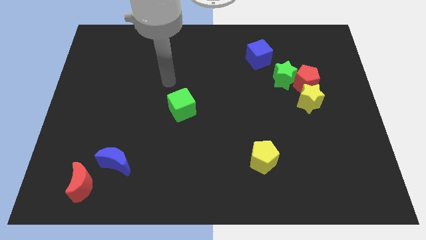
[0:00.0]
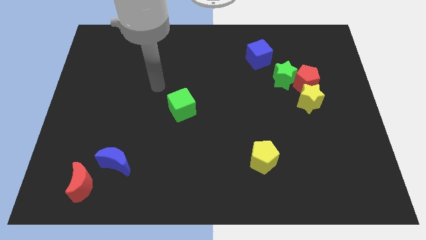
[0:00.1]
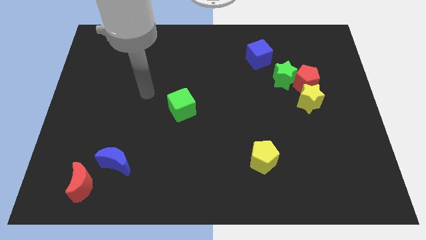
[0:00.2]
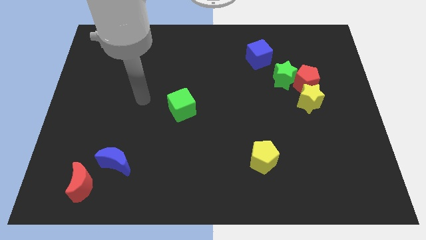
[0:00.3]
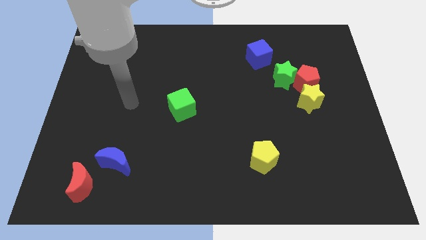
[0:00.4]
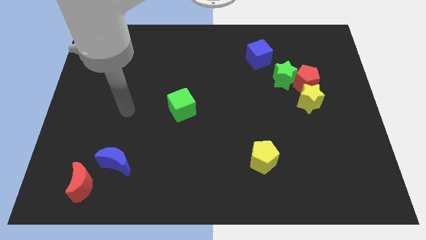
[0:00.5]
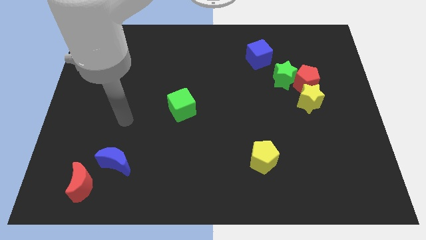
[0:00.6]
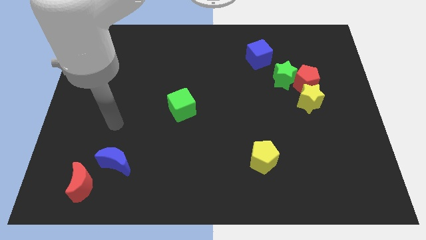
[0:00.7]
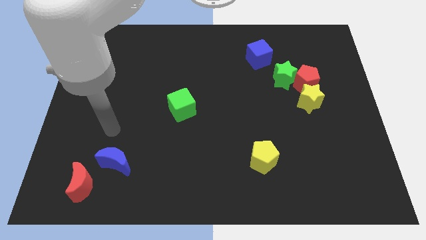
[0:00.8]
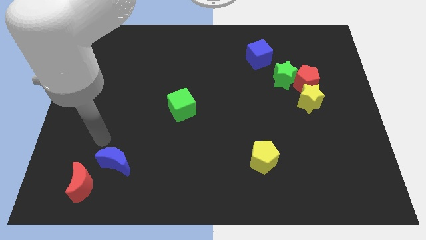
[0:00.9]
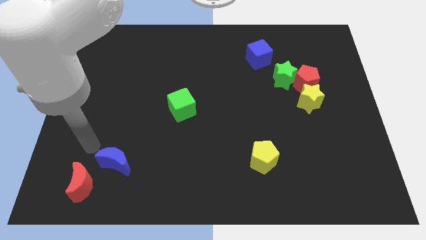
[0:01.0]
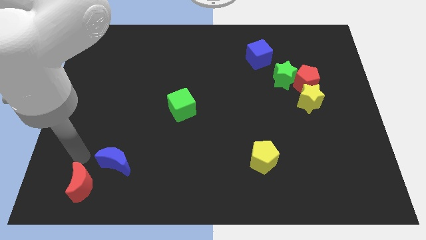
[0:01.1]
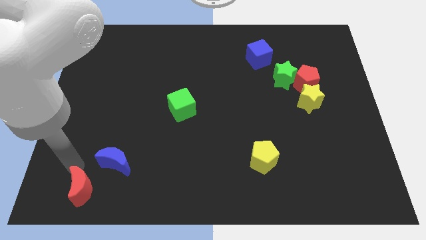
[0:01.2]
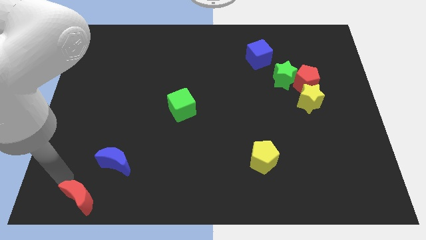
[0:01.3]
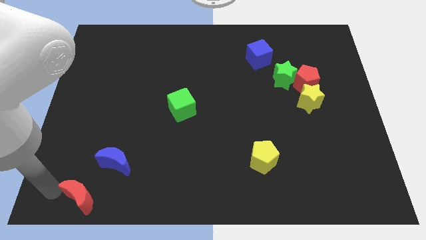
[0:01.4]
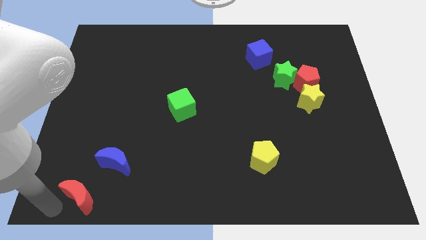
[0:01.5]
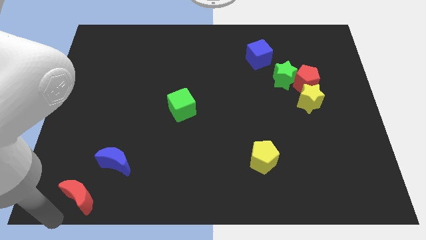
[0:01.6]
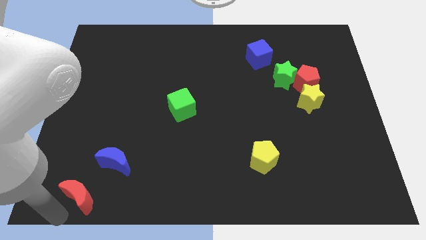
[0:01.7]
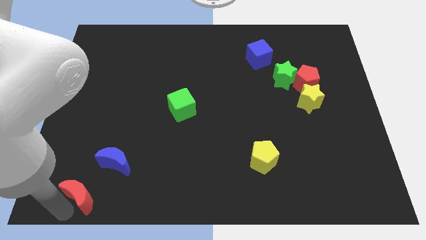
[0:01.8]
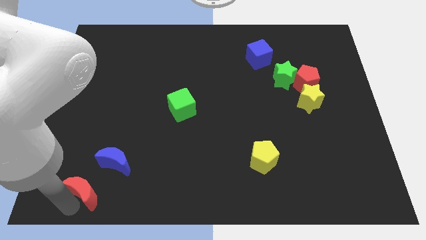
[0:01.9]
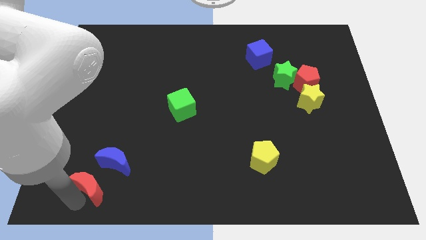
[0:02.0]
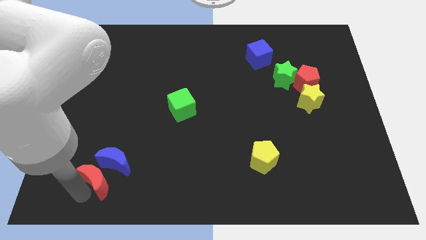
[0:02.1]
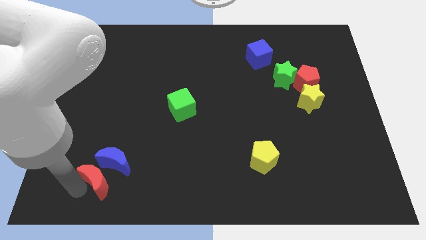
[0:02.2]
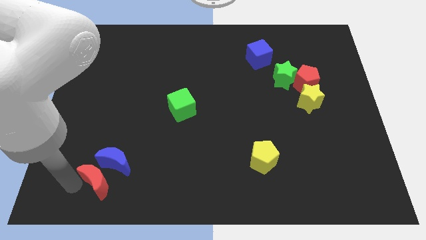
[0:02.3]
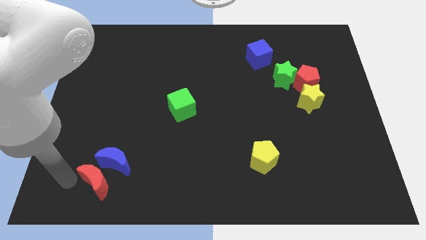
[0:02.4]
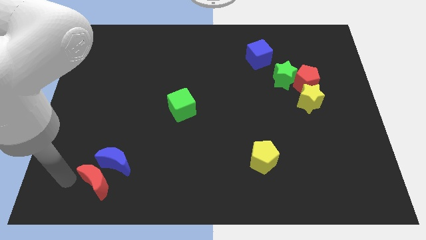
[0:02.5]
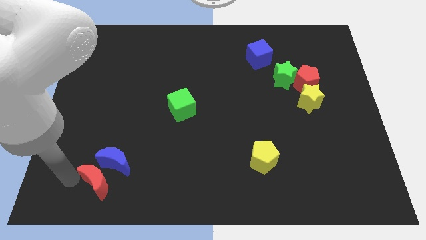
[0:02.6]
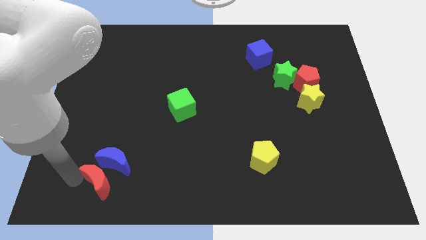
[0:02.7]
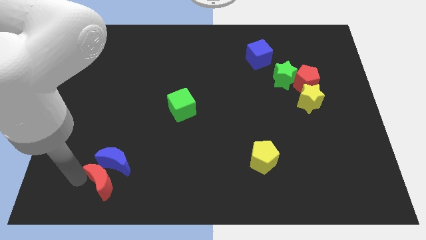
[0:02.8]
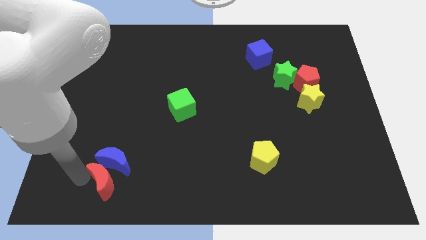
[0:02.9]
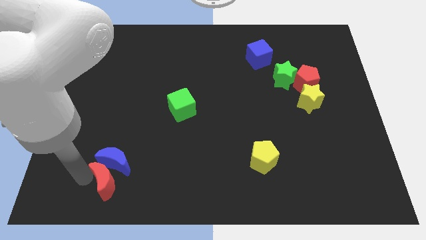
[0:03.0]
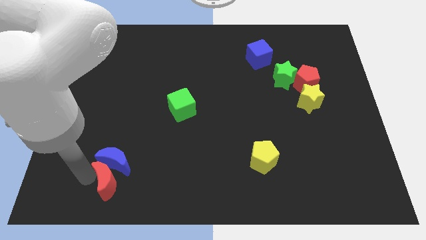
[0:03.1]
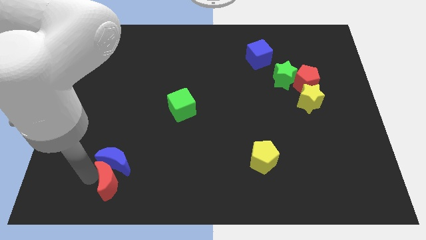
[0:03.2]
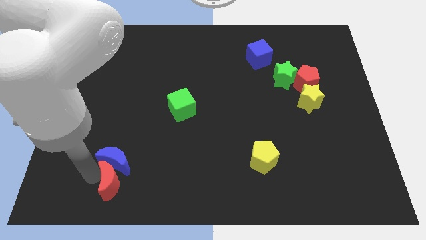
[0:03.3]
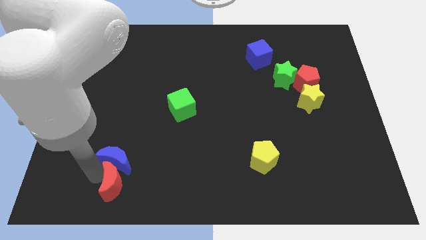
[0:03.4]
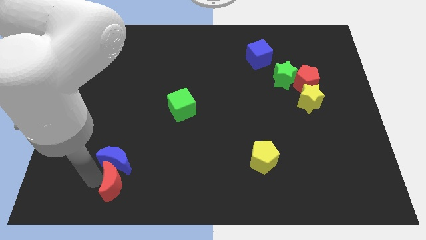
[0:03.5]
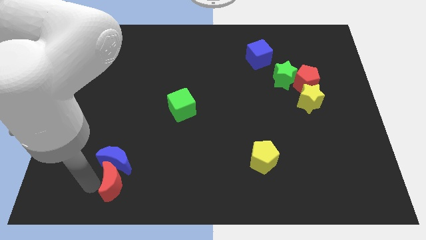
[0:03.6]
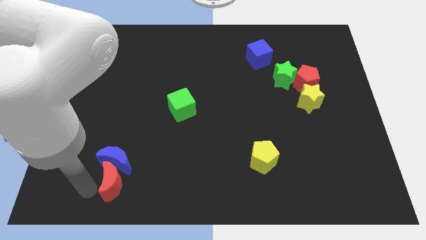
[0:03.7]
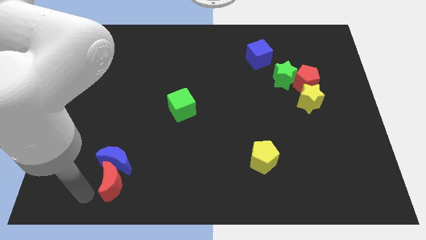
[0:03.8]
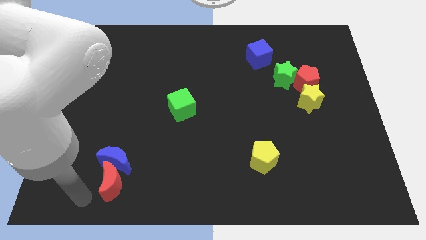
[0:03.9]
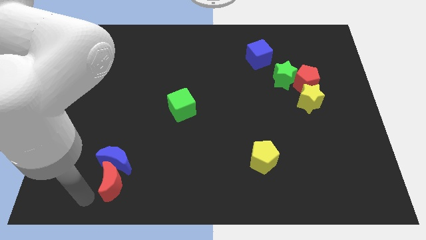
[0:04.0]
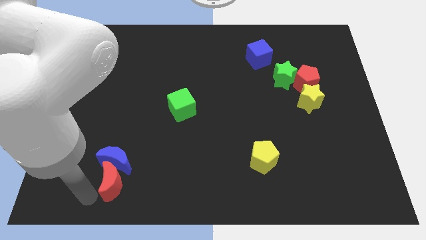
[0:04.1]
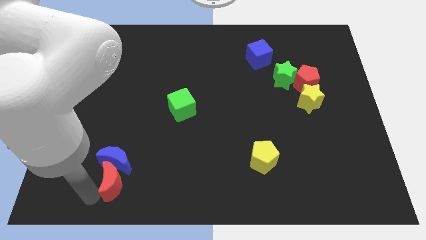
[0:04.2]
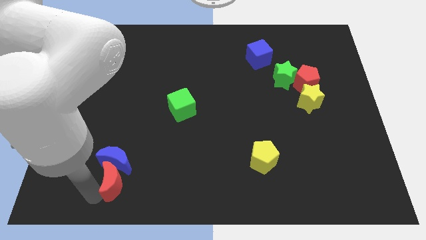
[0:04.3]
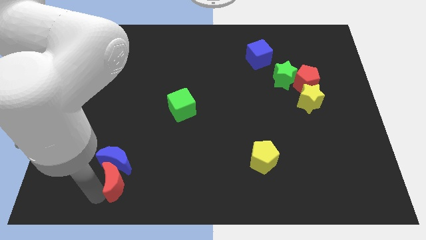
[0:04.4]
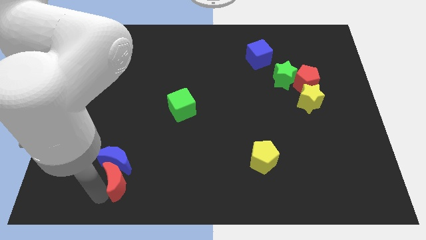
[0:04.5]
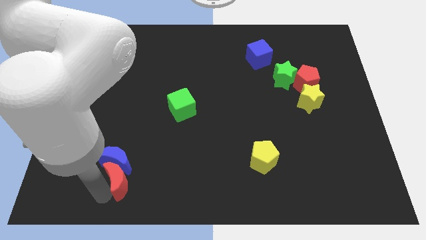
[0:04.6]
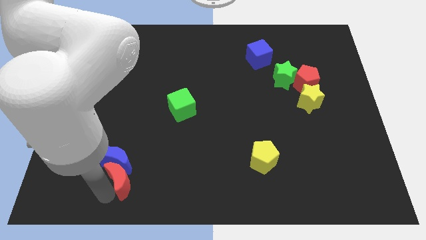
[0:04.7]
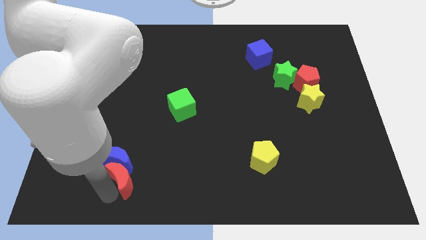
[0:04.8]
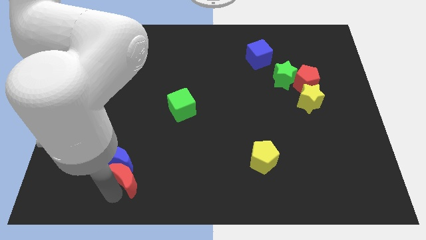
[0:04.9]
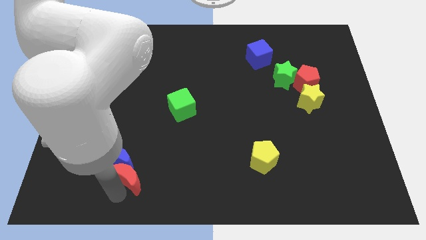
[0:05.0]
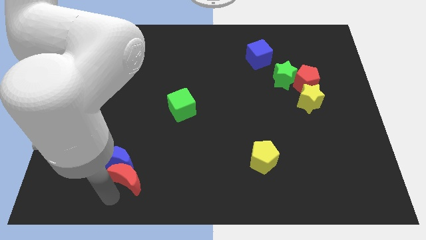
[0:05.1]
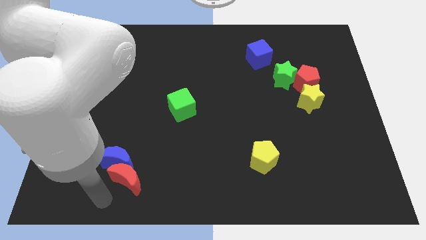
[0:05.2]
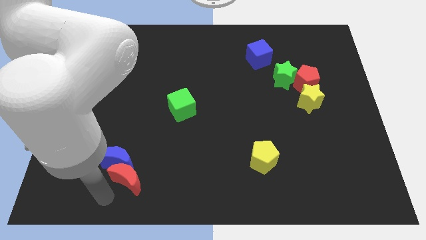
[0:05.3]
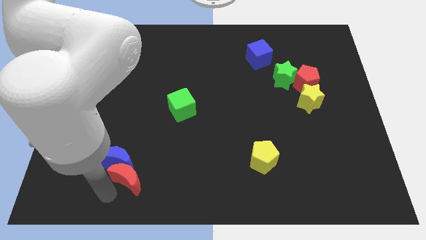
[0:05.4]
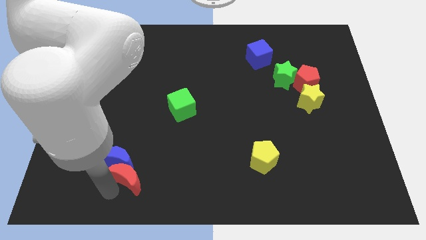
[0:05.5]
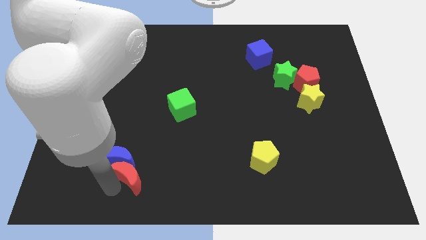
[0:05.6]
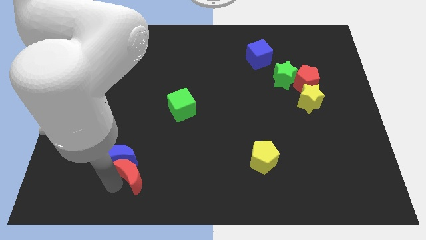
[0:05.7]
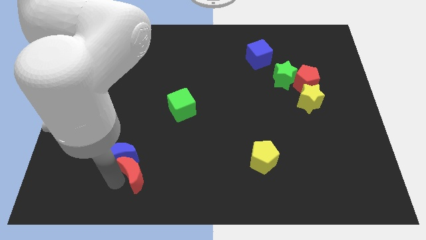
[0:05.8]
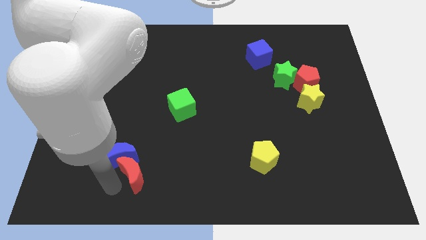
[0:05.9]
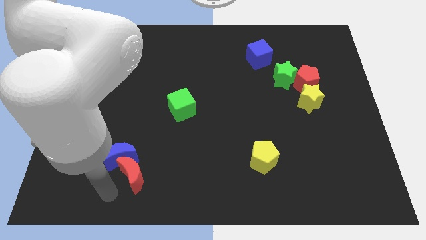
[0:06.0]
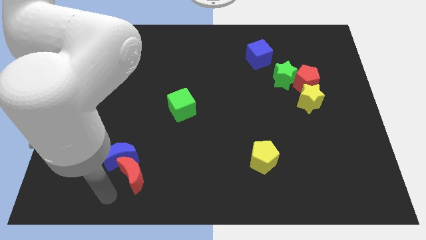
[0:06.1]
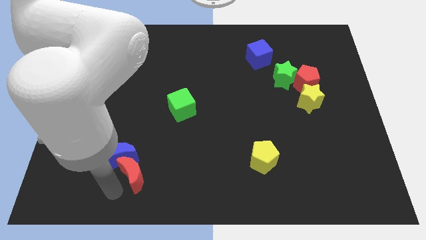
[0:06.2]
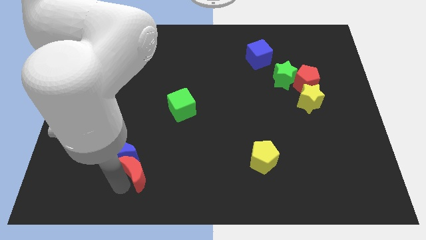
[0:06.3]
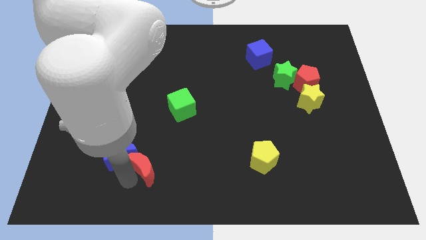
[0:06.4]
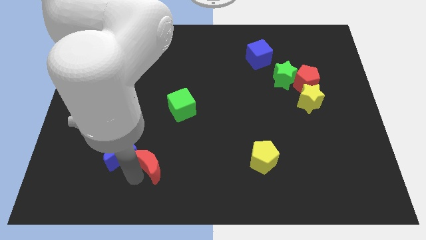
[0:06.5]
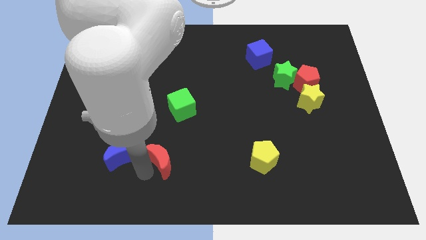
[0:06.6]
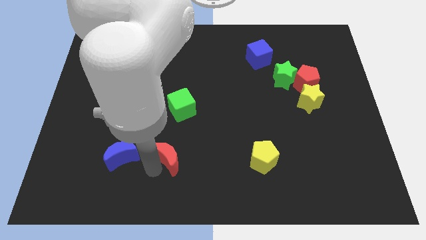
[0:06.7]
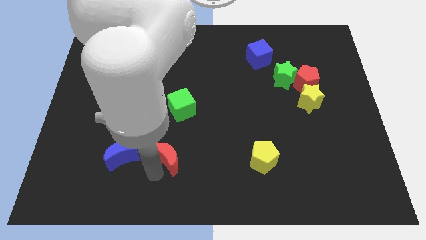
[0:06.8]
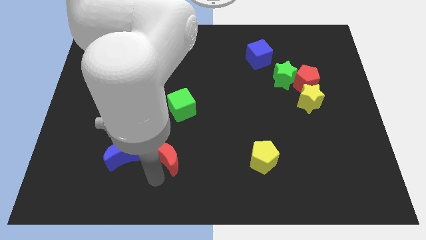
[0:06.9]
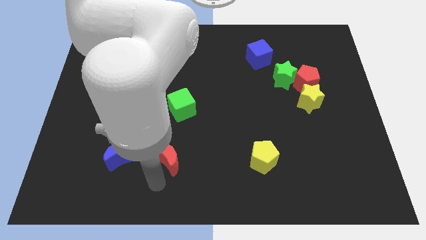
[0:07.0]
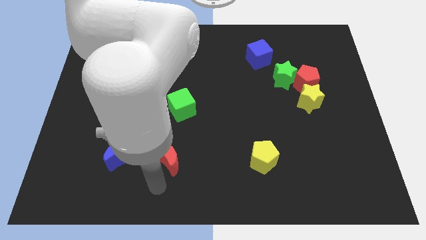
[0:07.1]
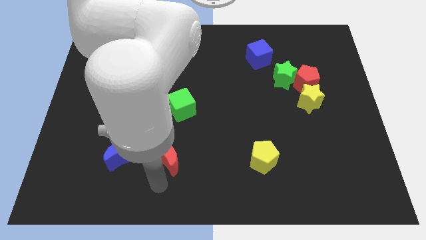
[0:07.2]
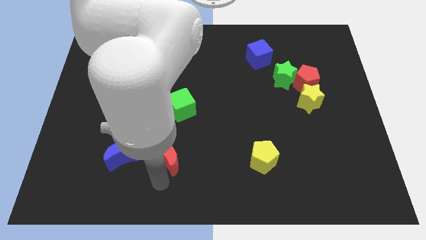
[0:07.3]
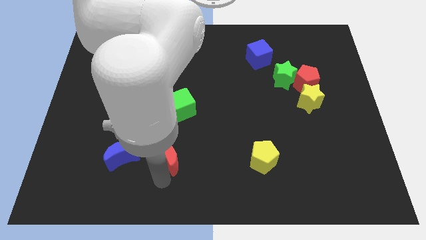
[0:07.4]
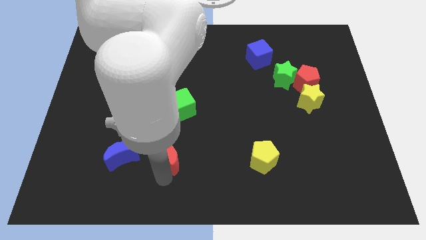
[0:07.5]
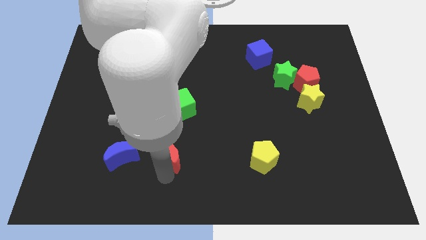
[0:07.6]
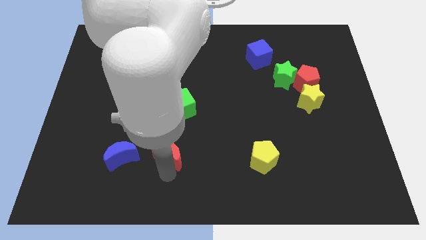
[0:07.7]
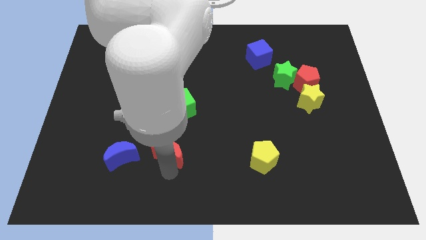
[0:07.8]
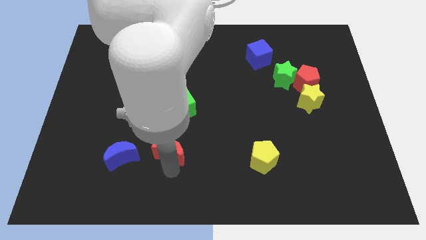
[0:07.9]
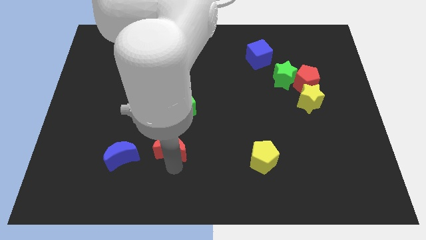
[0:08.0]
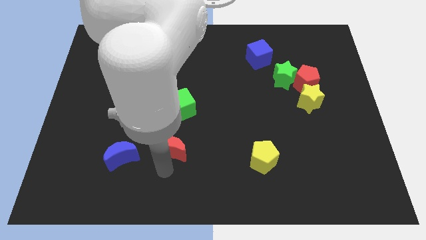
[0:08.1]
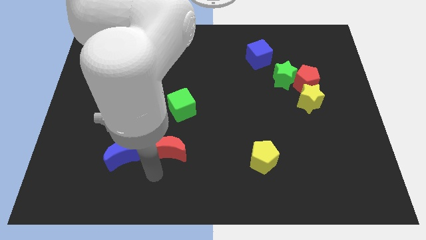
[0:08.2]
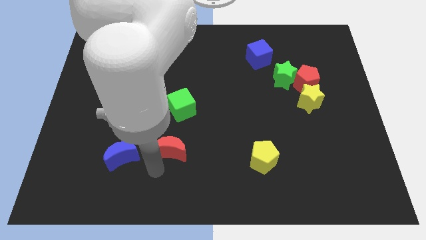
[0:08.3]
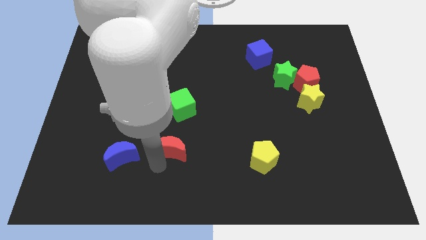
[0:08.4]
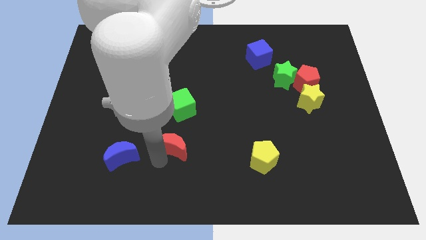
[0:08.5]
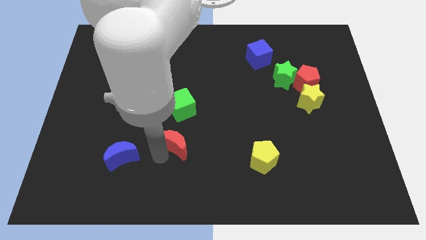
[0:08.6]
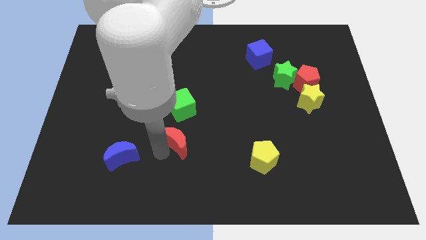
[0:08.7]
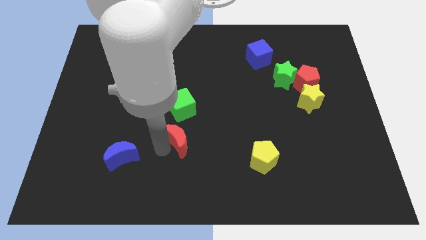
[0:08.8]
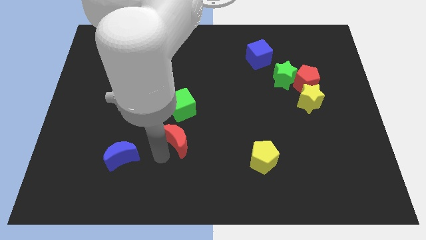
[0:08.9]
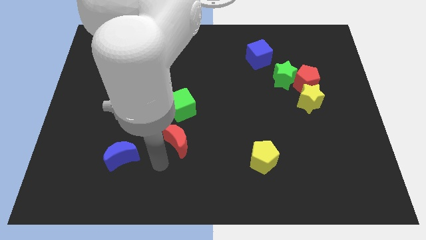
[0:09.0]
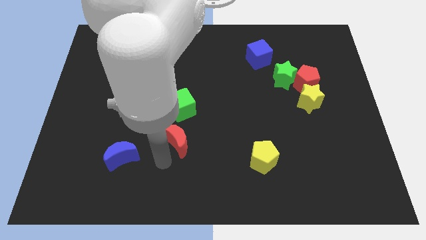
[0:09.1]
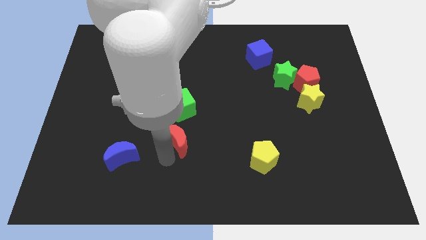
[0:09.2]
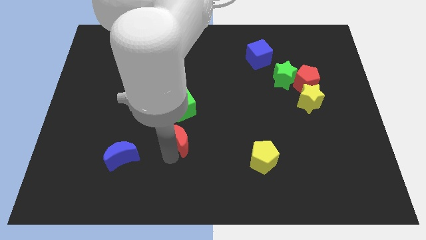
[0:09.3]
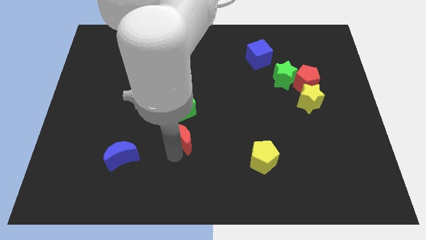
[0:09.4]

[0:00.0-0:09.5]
slide the red moon diagonally upwards and right
